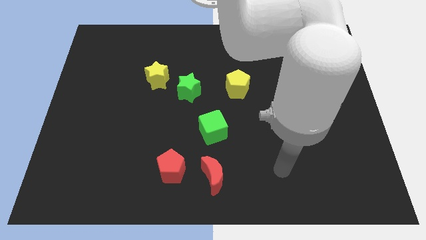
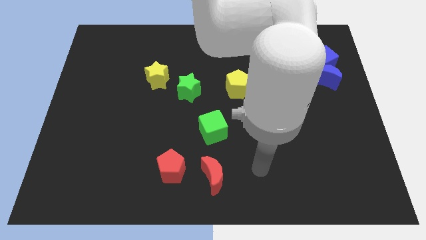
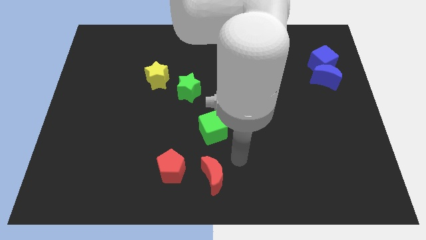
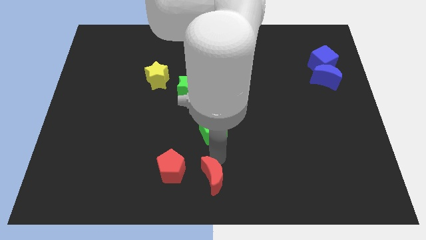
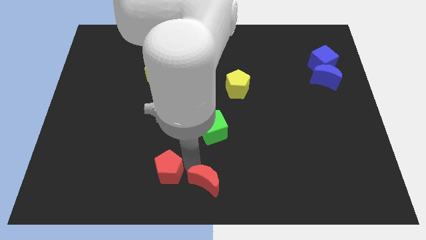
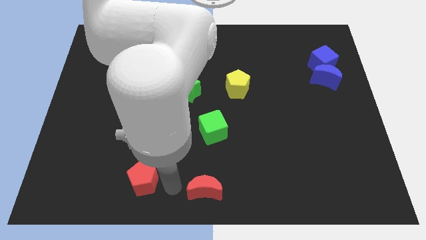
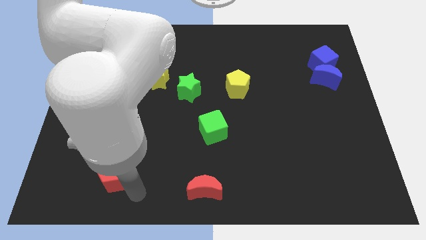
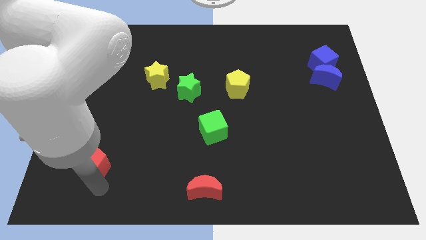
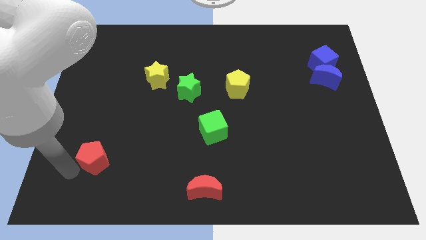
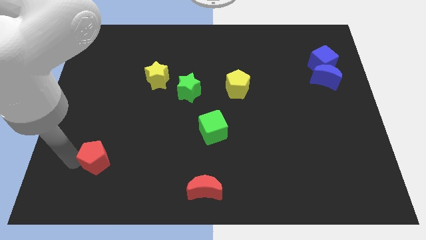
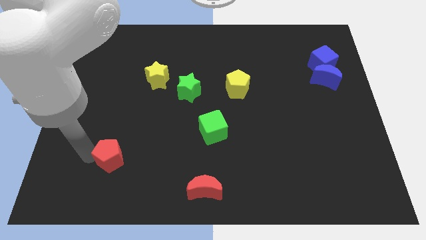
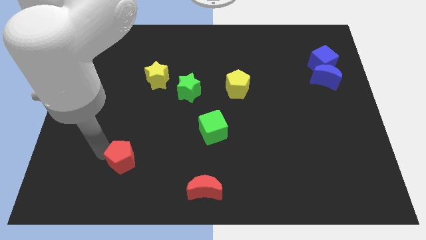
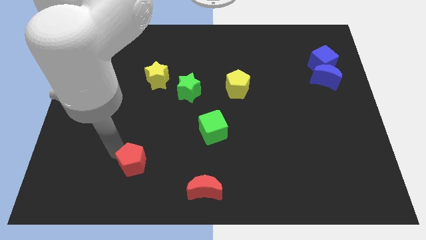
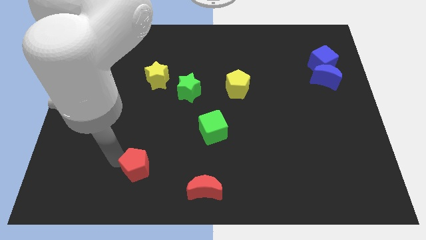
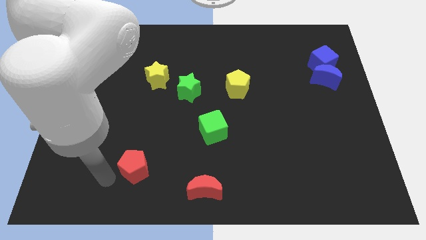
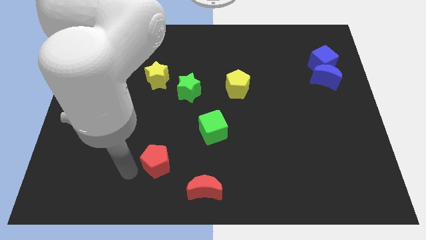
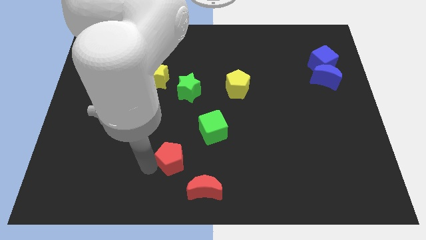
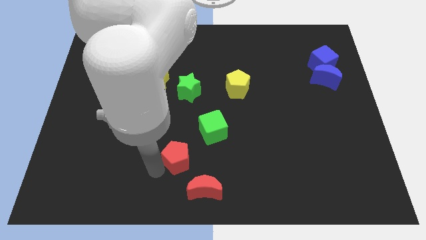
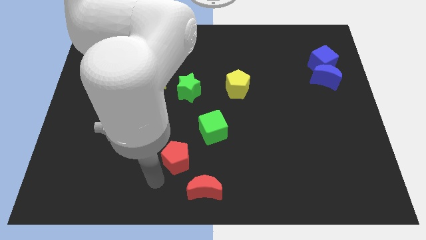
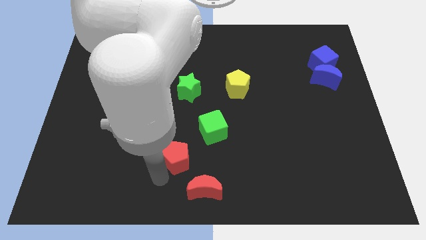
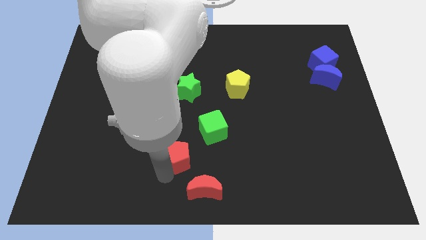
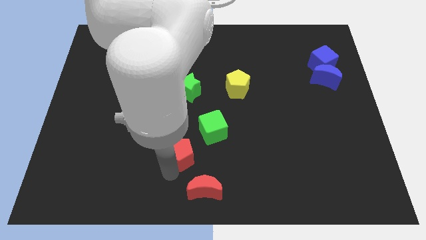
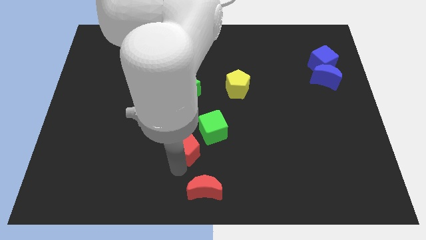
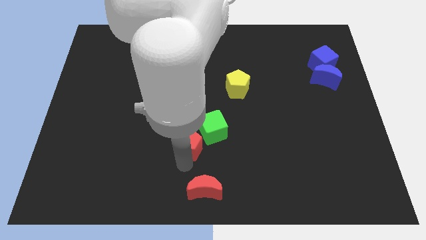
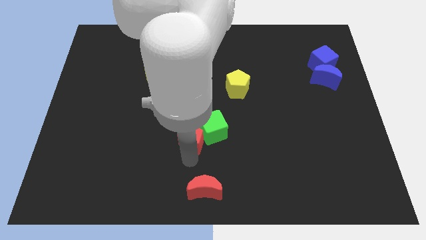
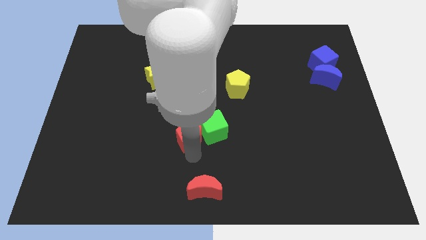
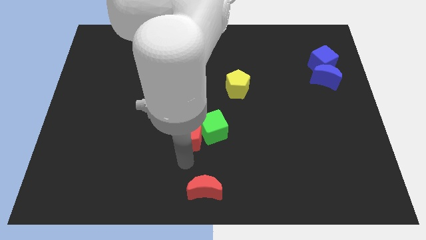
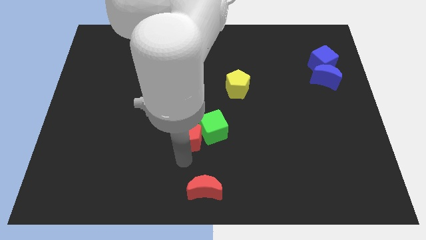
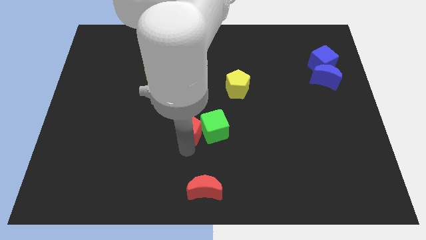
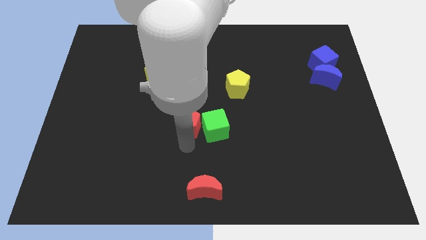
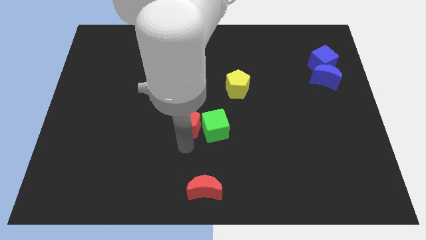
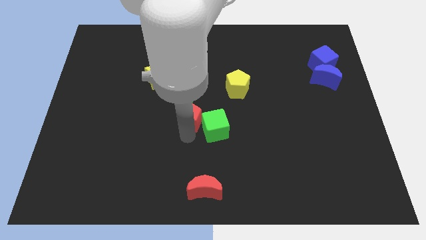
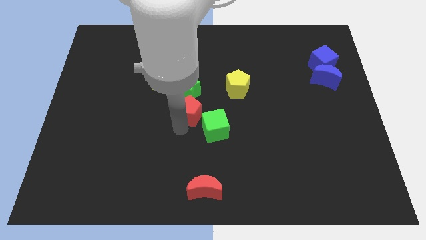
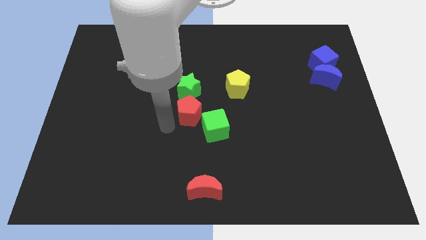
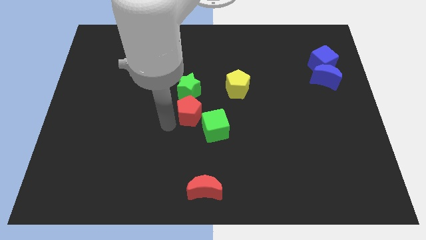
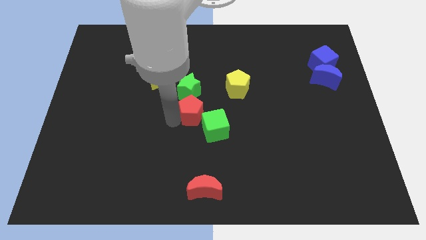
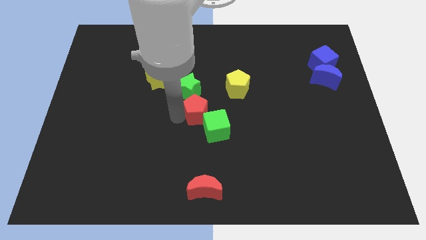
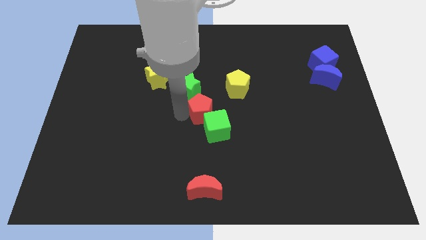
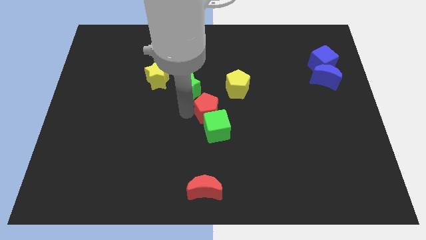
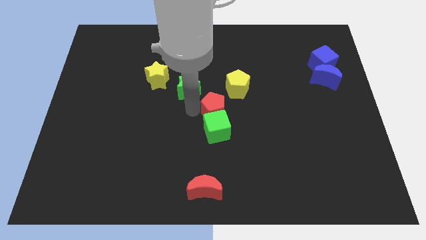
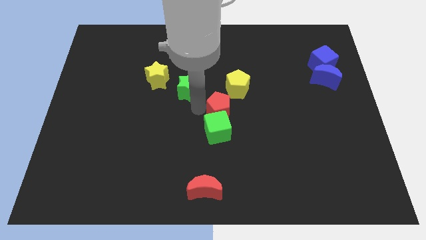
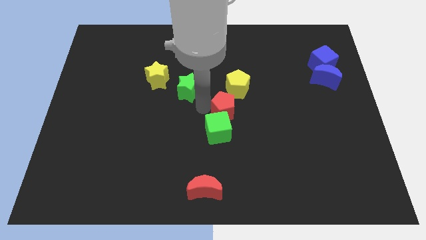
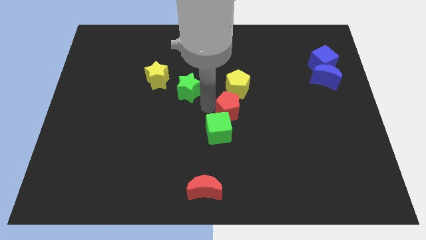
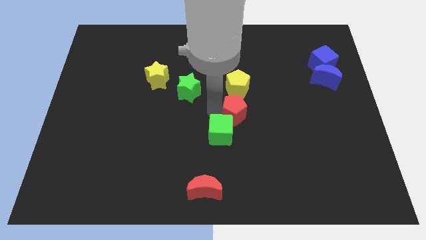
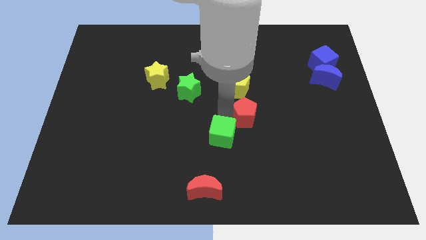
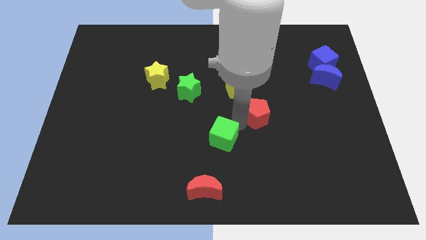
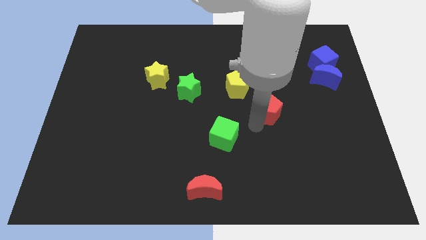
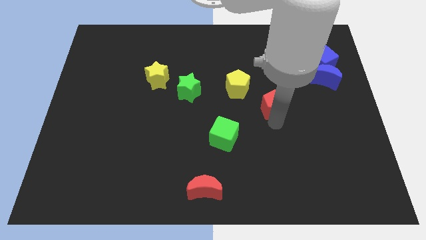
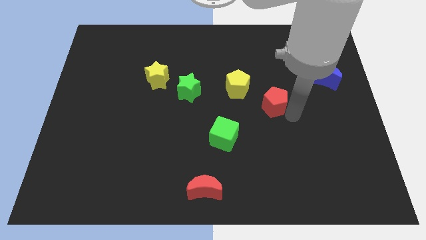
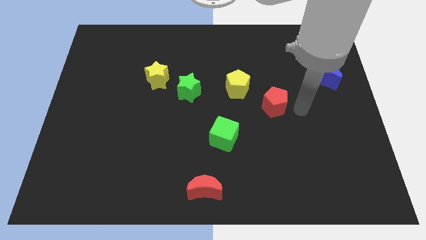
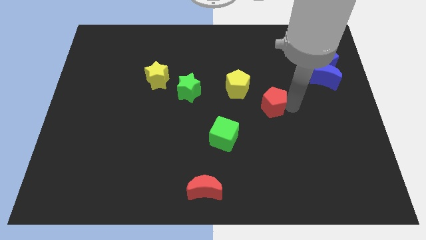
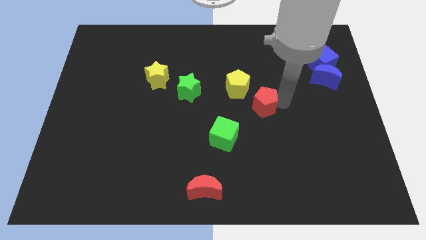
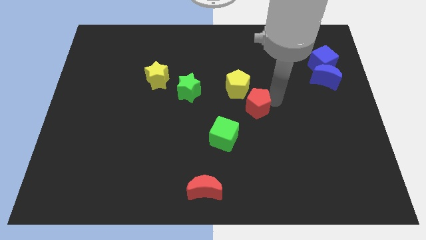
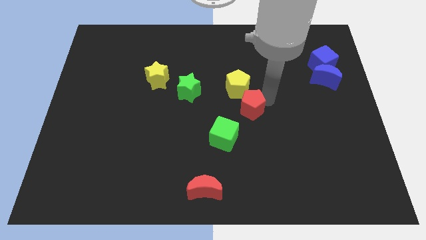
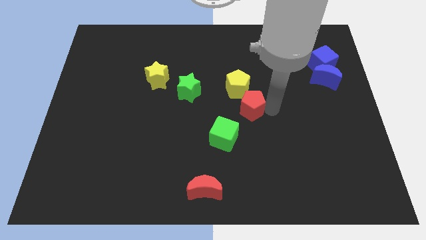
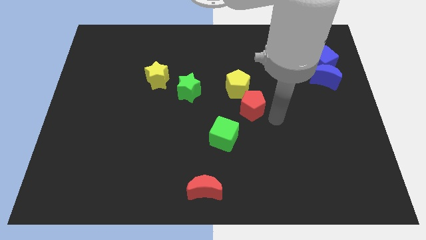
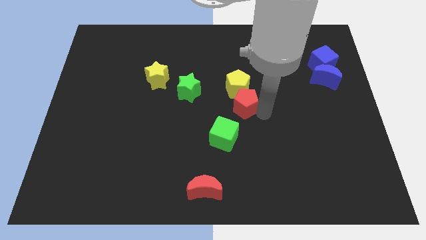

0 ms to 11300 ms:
move the red pentagon close to the yellow pentagon

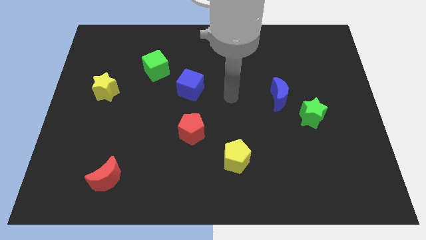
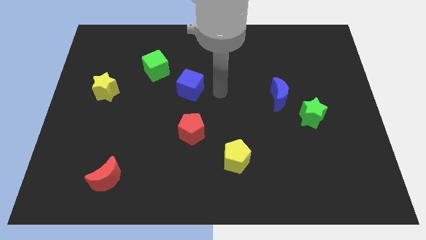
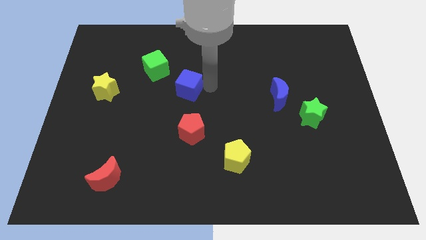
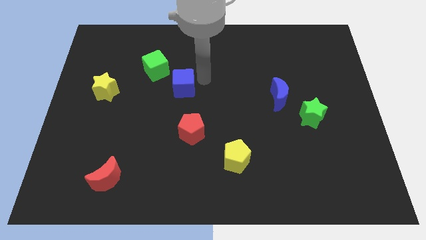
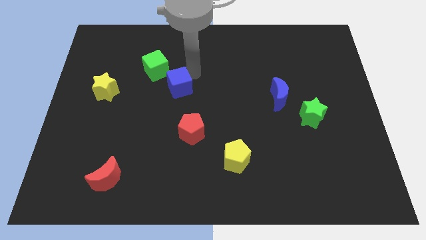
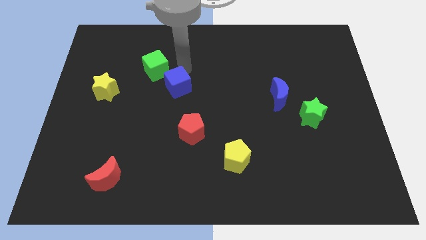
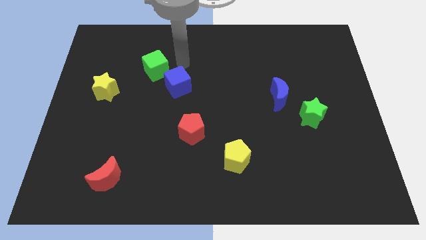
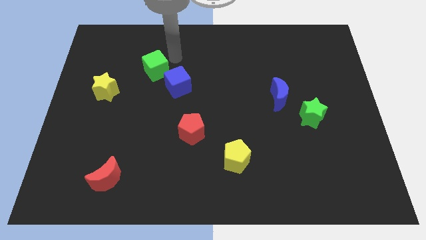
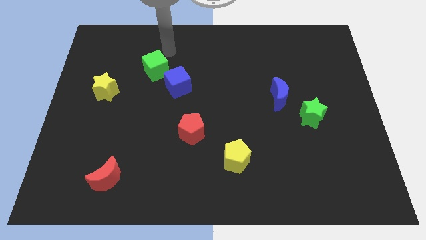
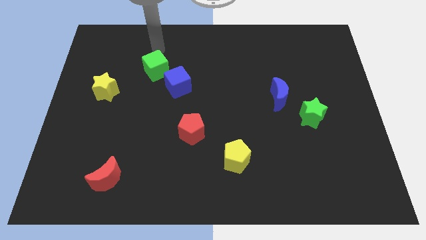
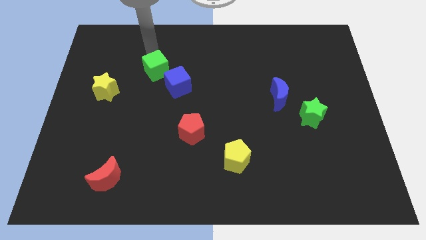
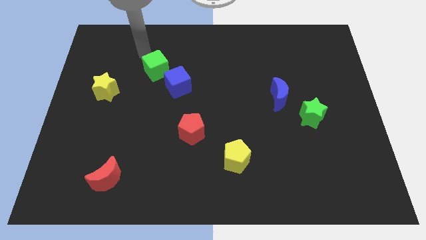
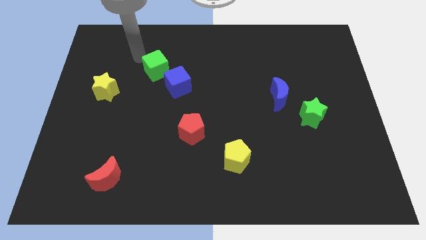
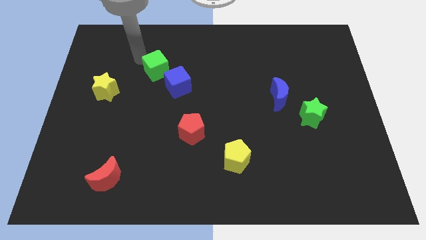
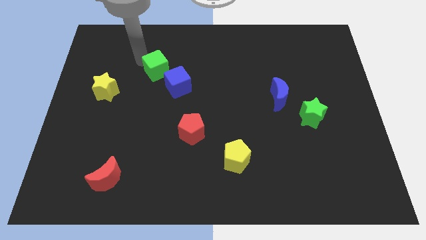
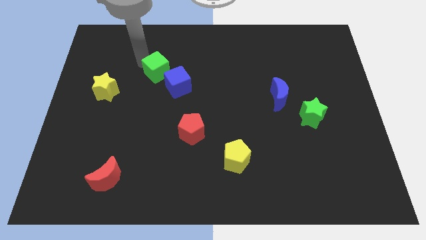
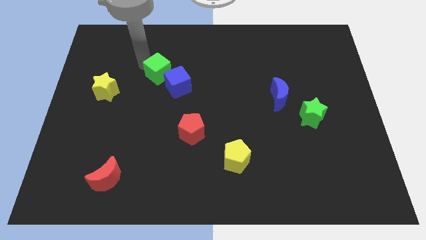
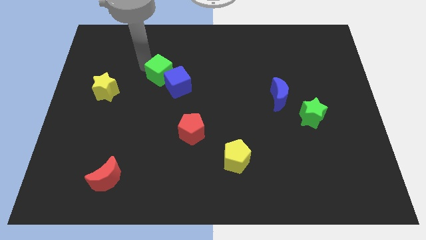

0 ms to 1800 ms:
move the green cube to the blue cube

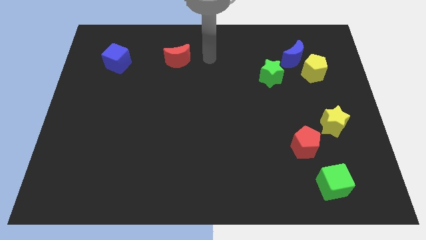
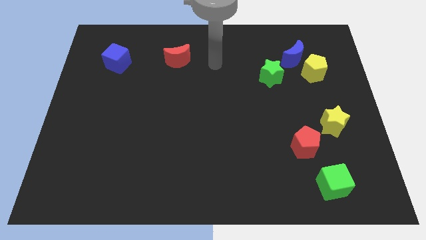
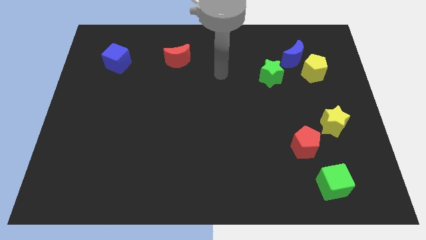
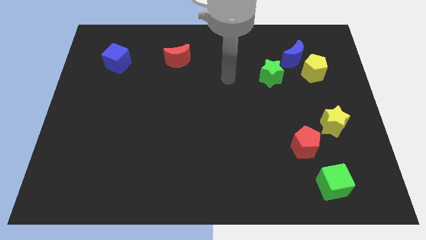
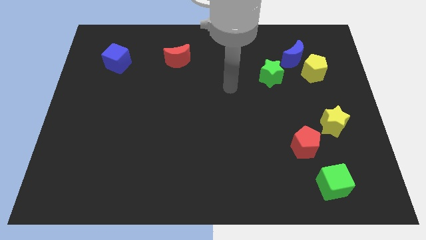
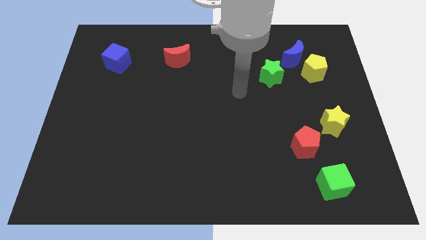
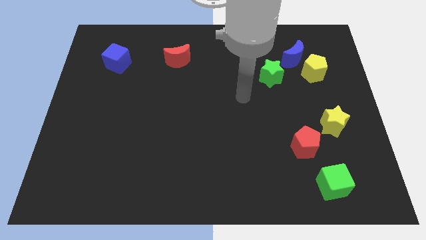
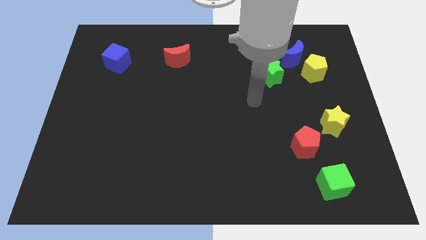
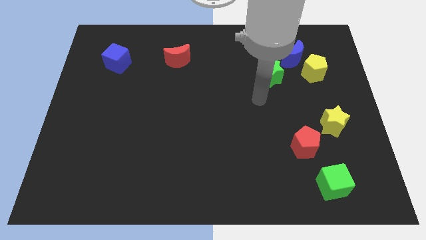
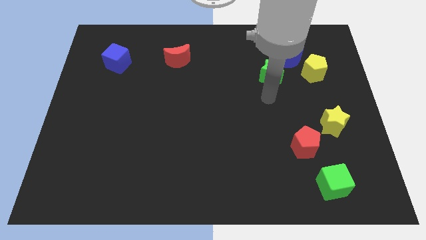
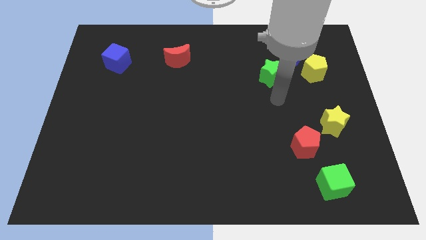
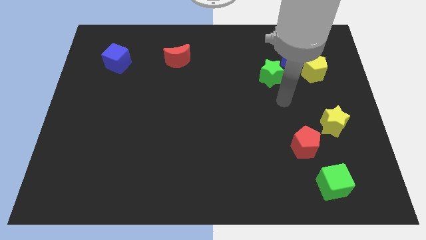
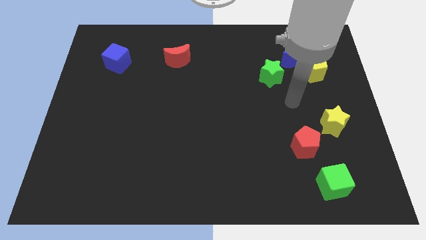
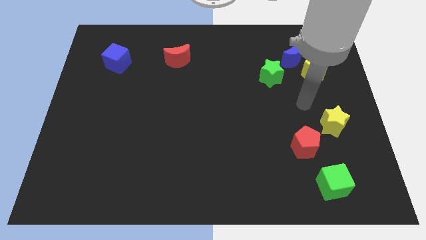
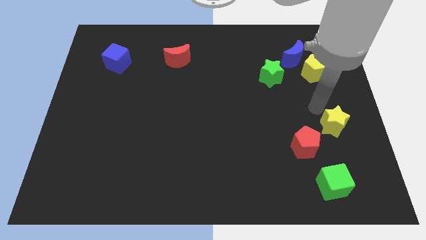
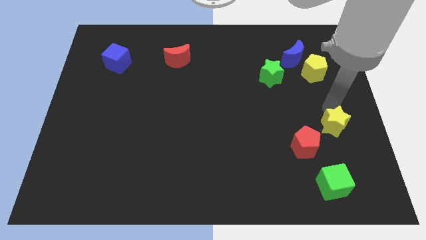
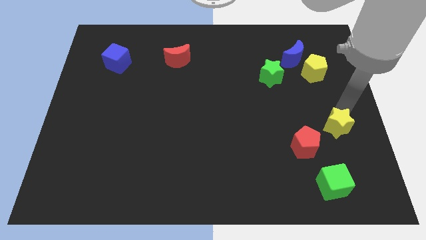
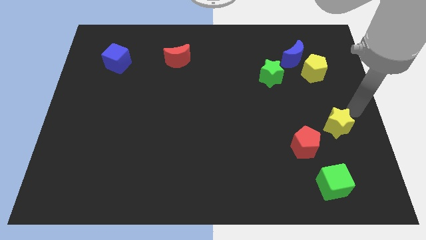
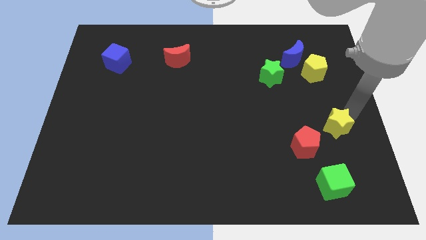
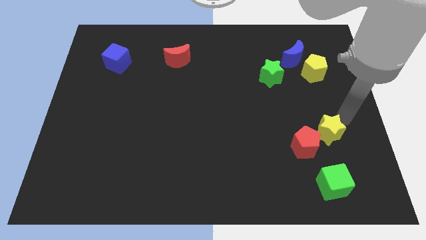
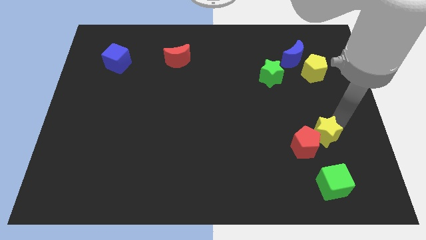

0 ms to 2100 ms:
push the yellow star towards the red pentagon
